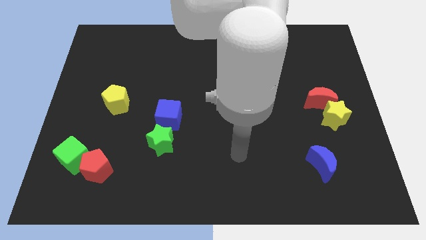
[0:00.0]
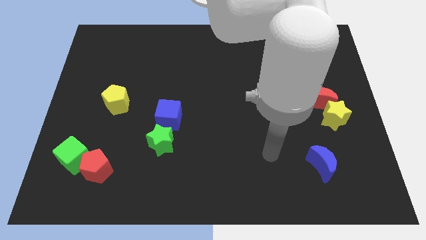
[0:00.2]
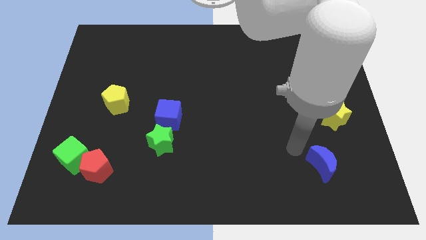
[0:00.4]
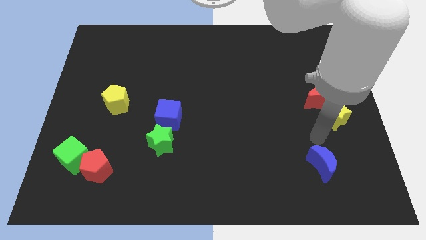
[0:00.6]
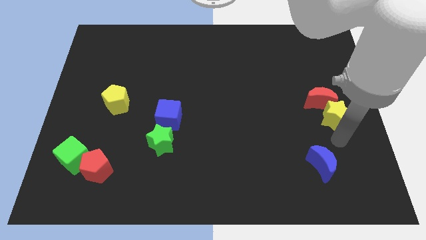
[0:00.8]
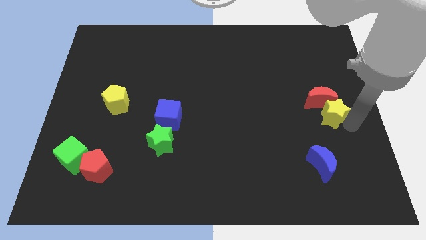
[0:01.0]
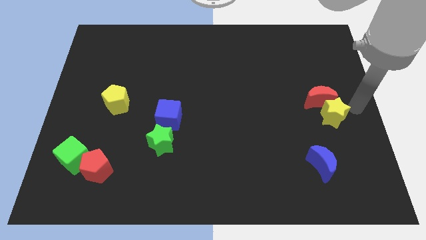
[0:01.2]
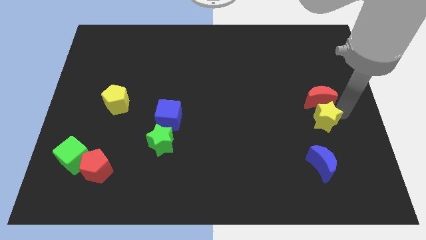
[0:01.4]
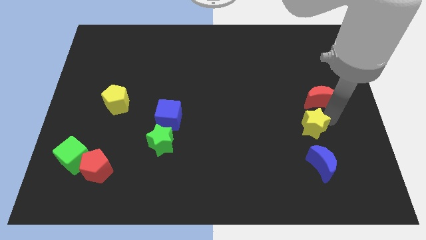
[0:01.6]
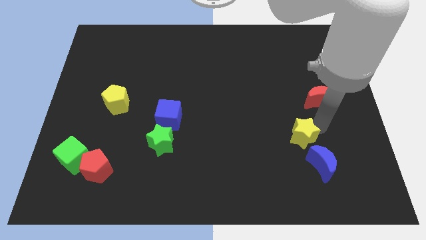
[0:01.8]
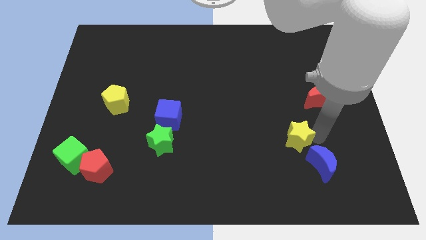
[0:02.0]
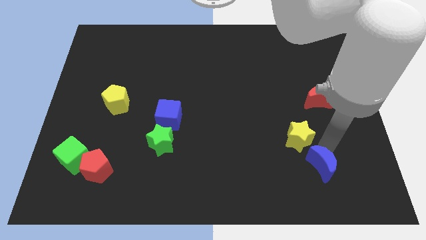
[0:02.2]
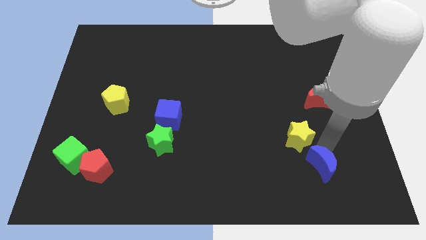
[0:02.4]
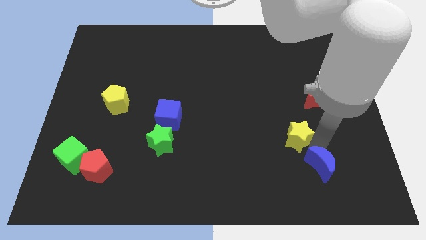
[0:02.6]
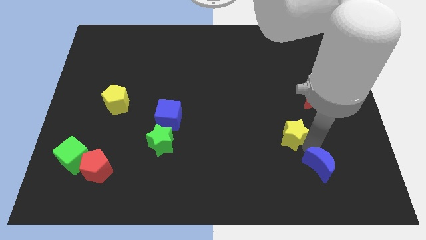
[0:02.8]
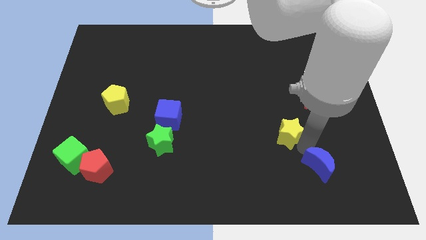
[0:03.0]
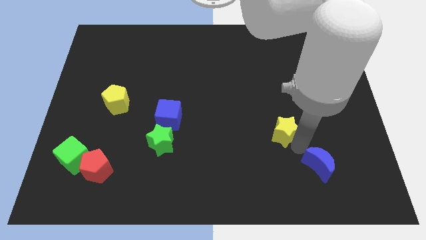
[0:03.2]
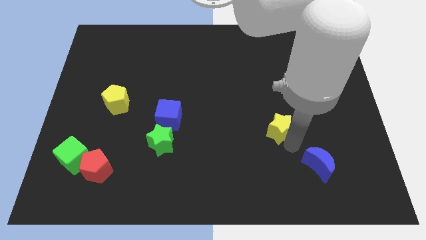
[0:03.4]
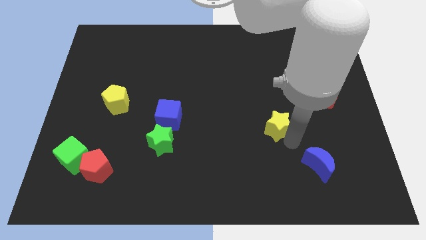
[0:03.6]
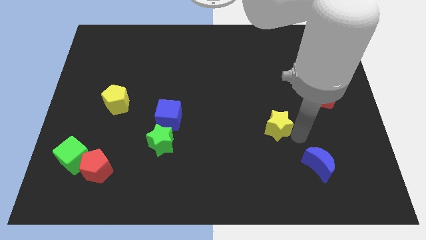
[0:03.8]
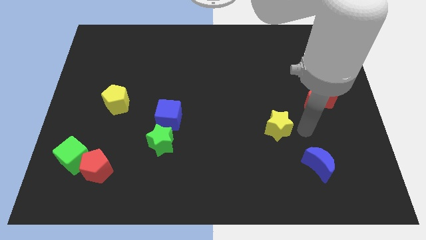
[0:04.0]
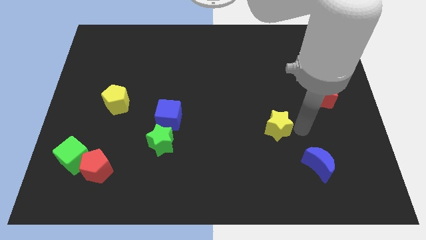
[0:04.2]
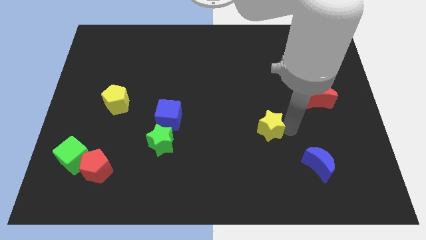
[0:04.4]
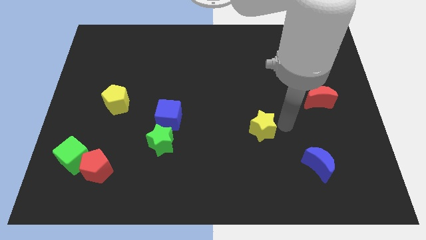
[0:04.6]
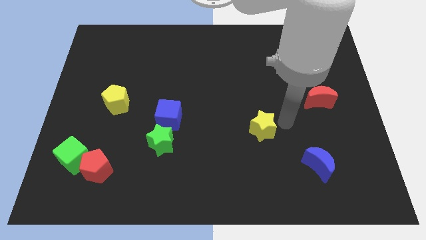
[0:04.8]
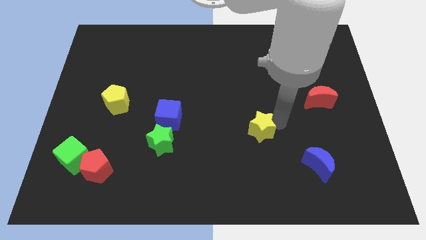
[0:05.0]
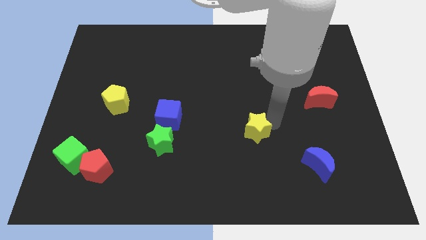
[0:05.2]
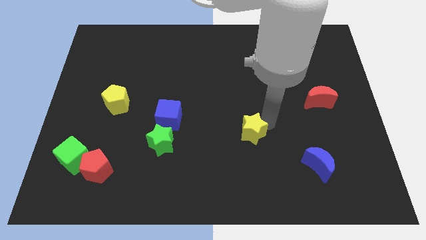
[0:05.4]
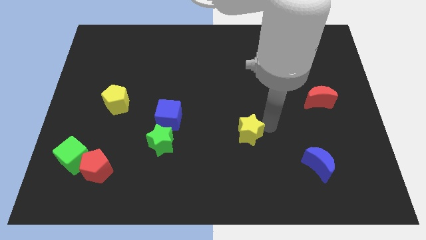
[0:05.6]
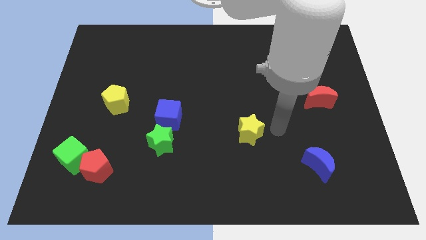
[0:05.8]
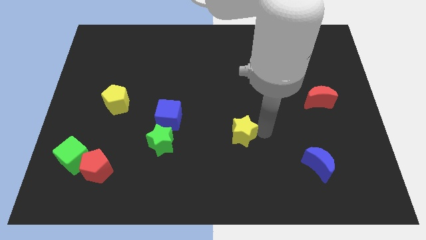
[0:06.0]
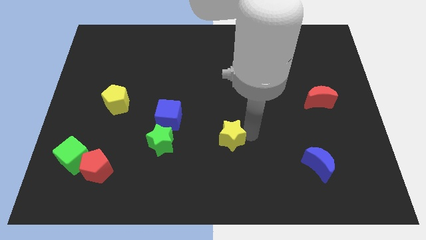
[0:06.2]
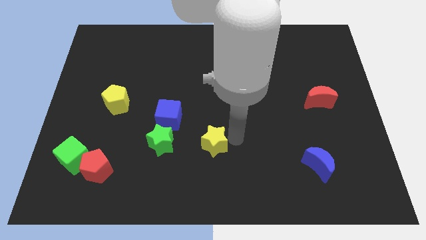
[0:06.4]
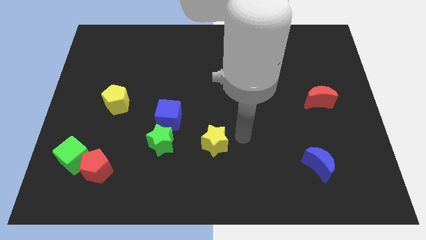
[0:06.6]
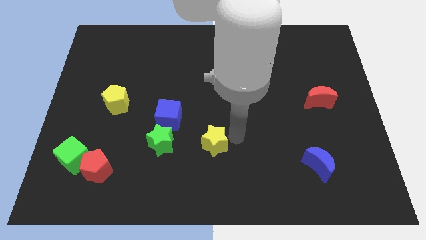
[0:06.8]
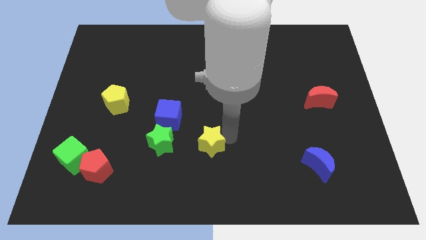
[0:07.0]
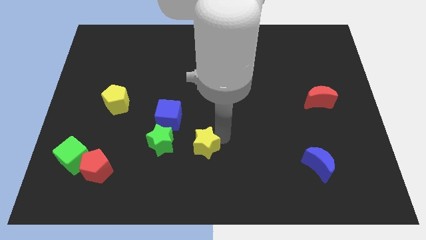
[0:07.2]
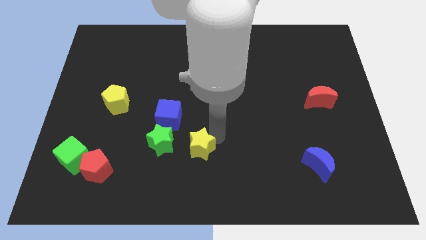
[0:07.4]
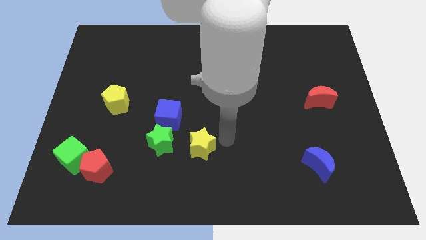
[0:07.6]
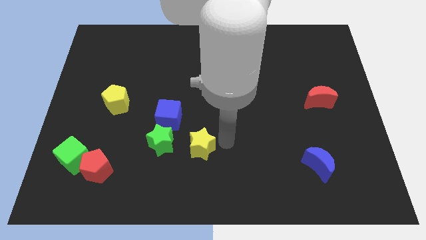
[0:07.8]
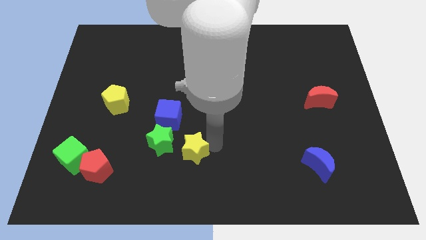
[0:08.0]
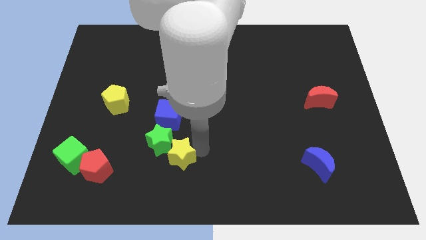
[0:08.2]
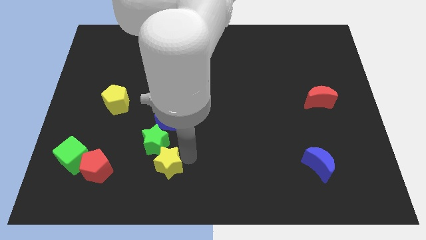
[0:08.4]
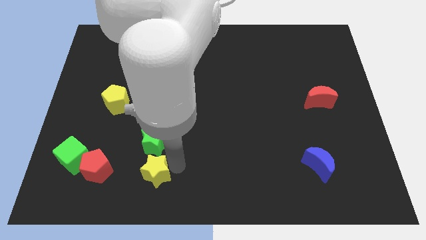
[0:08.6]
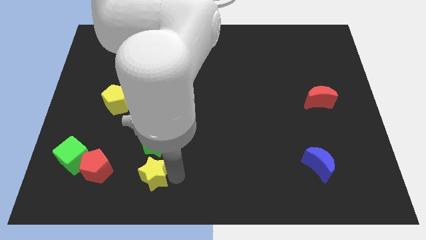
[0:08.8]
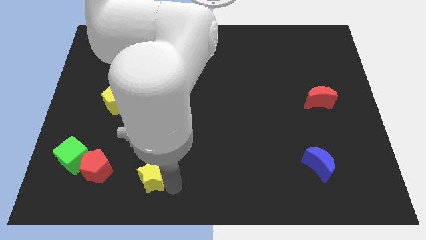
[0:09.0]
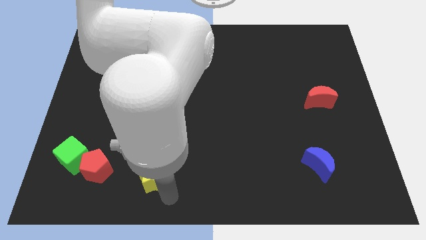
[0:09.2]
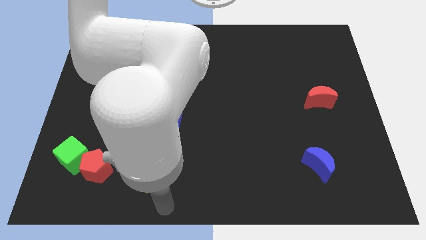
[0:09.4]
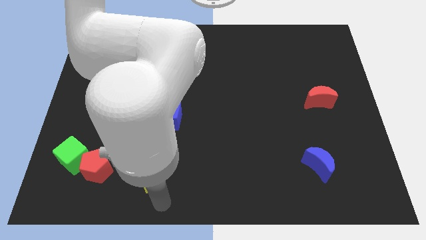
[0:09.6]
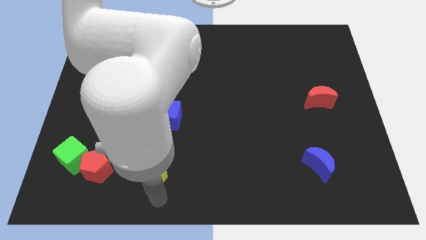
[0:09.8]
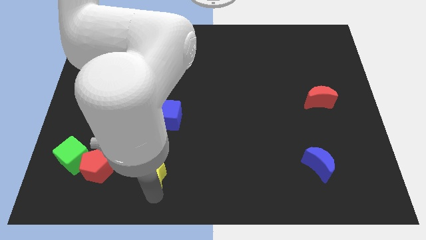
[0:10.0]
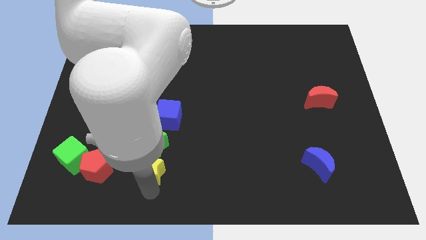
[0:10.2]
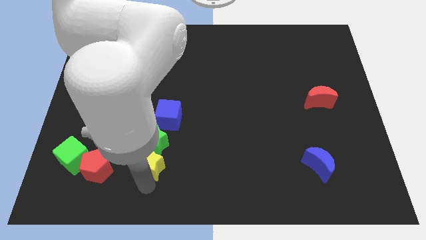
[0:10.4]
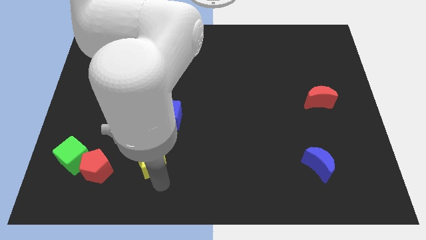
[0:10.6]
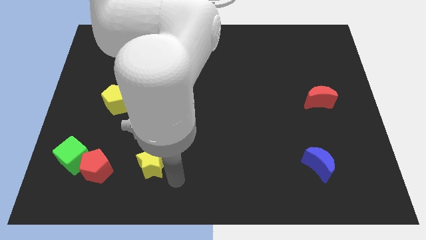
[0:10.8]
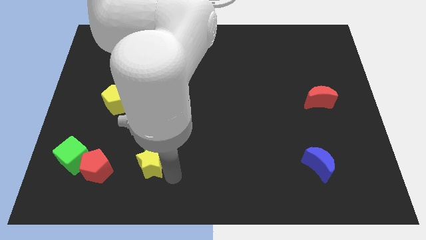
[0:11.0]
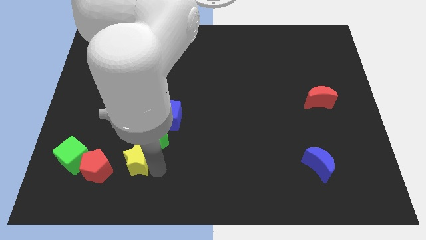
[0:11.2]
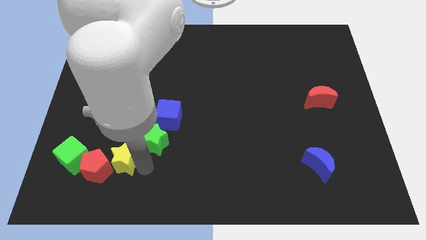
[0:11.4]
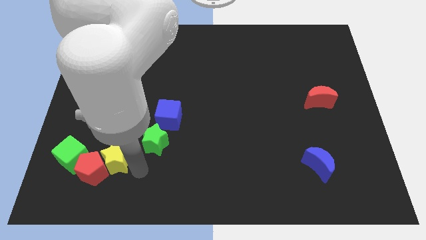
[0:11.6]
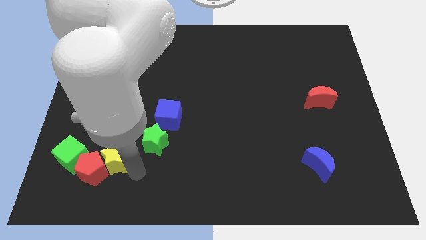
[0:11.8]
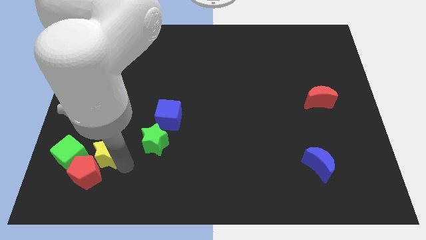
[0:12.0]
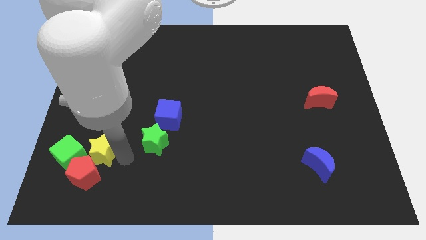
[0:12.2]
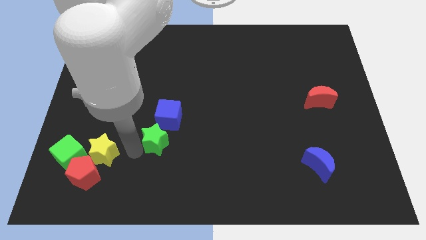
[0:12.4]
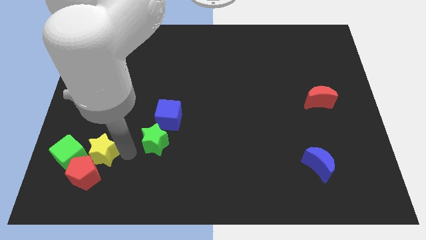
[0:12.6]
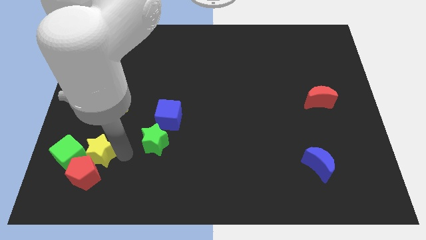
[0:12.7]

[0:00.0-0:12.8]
move the yellow star close to the green cube
